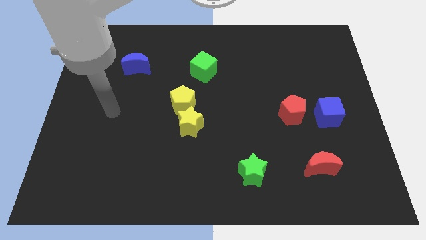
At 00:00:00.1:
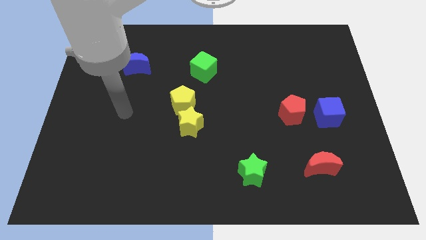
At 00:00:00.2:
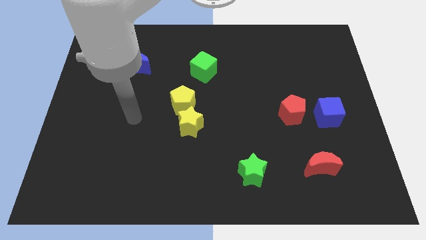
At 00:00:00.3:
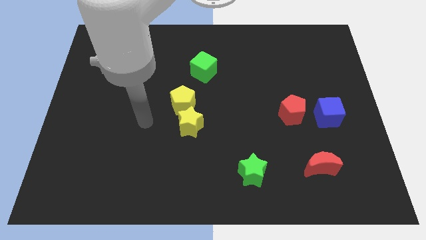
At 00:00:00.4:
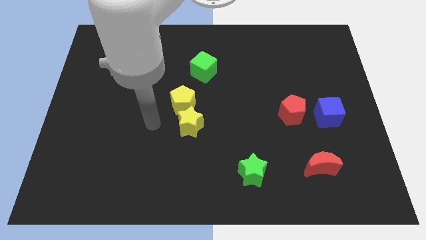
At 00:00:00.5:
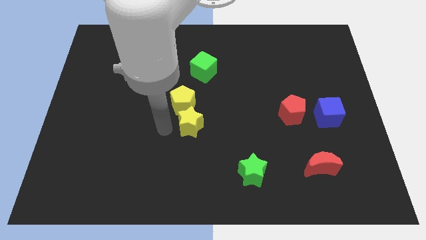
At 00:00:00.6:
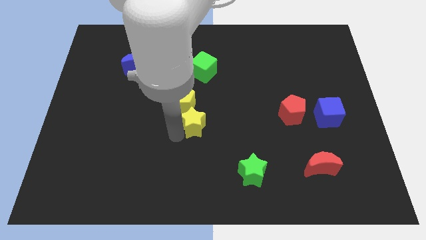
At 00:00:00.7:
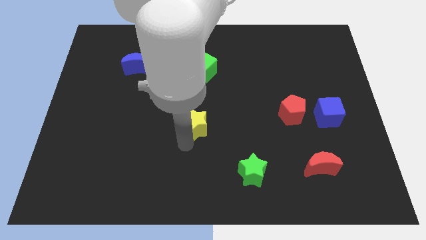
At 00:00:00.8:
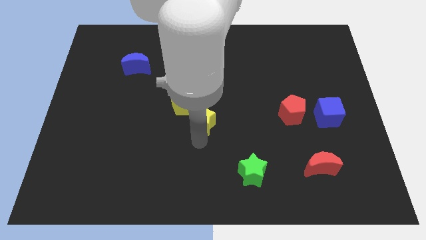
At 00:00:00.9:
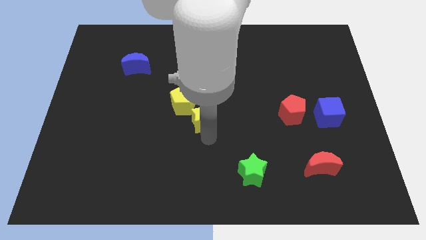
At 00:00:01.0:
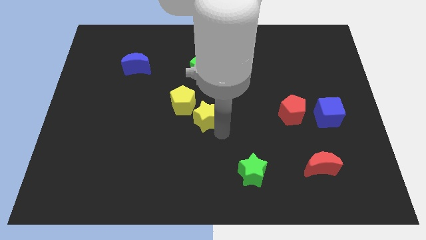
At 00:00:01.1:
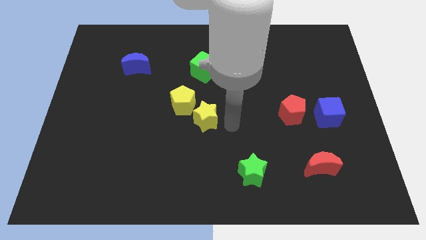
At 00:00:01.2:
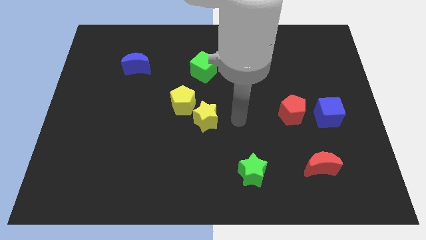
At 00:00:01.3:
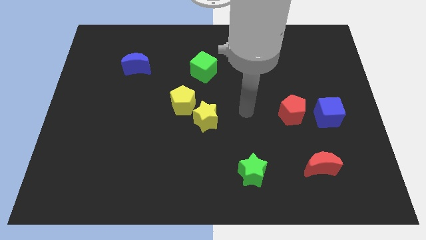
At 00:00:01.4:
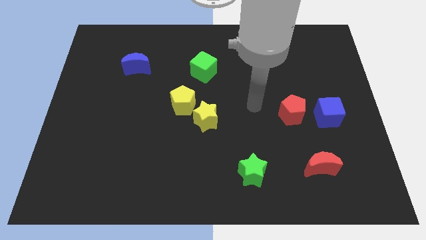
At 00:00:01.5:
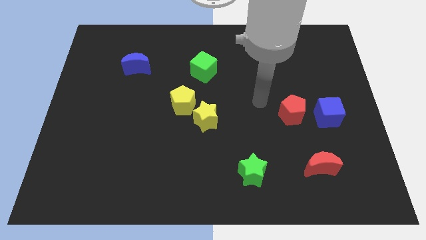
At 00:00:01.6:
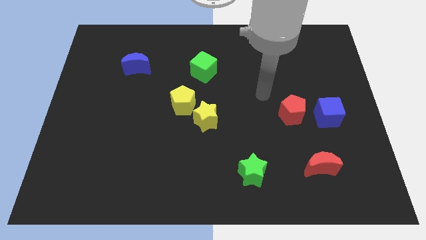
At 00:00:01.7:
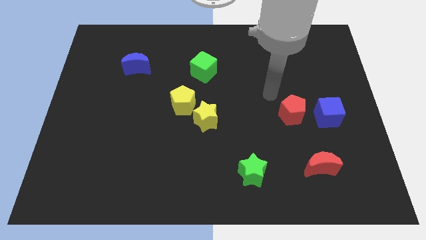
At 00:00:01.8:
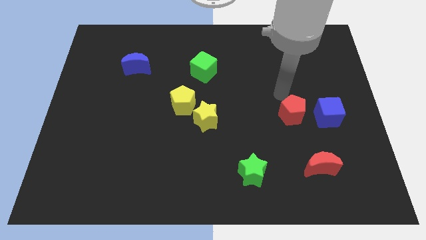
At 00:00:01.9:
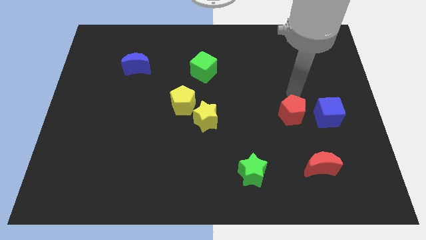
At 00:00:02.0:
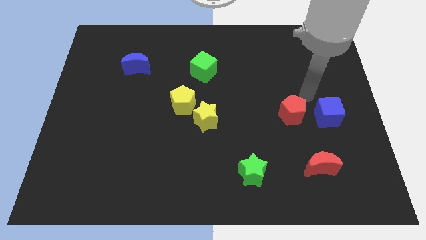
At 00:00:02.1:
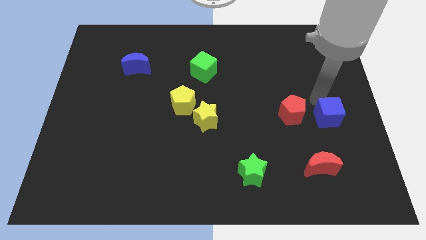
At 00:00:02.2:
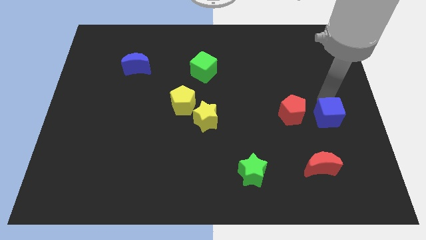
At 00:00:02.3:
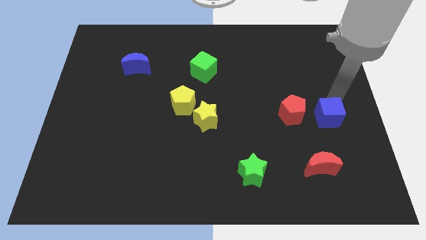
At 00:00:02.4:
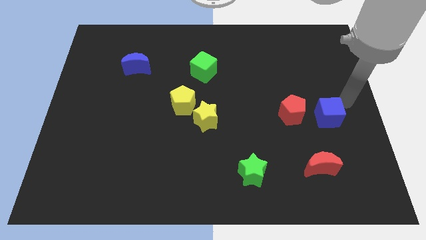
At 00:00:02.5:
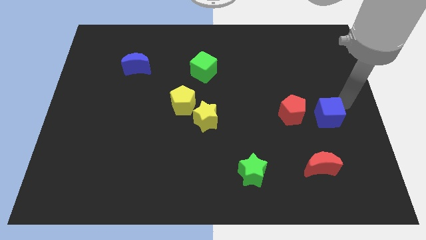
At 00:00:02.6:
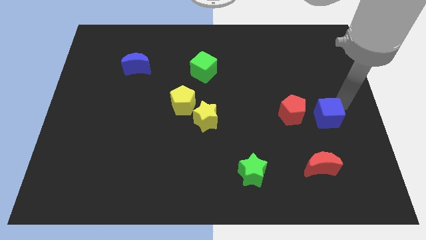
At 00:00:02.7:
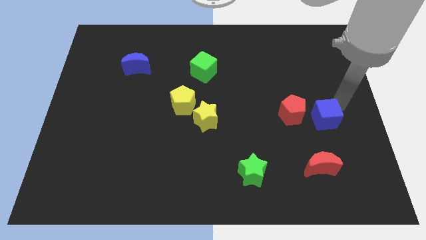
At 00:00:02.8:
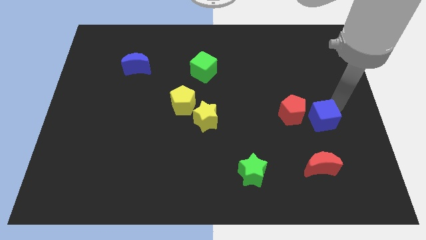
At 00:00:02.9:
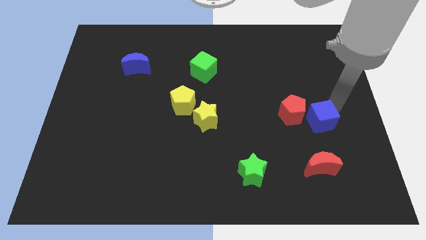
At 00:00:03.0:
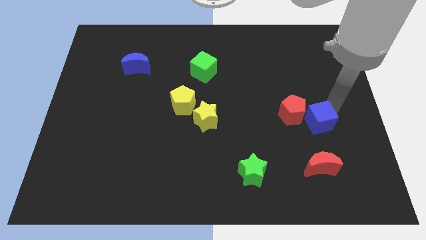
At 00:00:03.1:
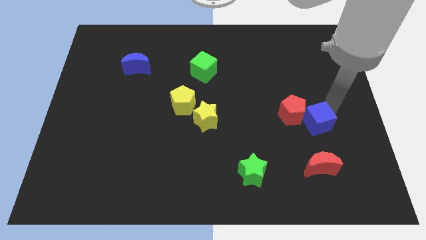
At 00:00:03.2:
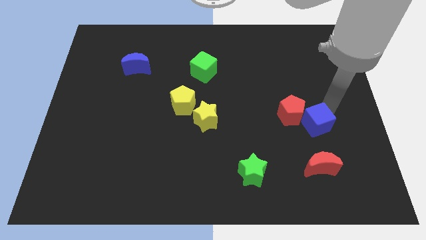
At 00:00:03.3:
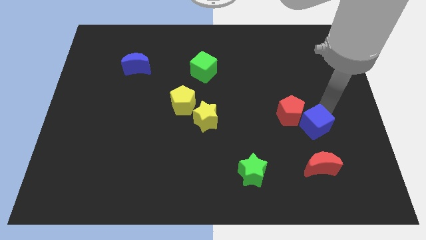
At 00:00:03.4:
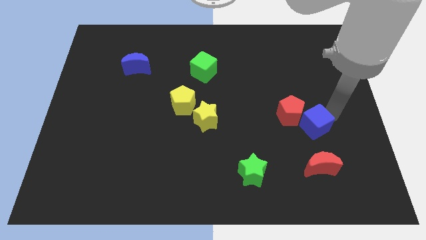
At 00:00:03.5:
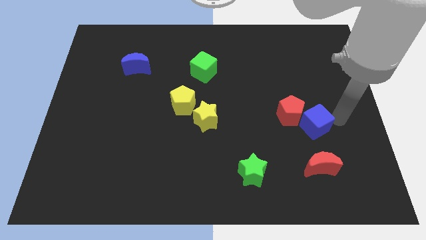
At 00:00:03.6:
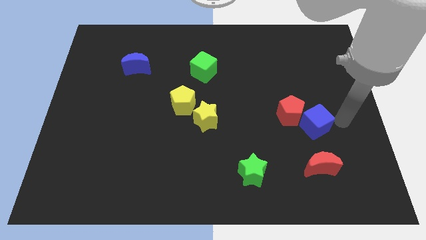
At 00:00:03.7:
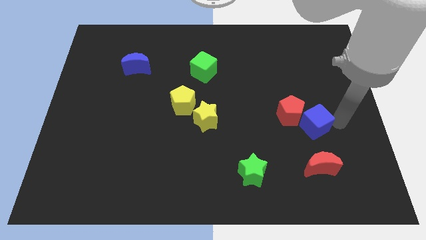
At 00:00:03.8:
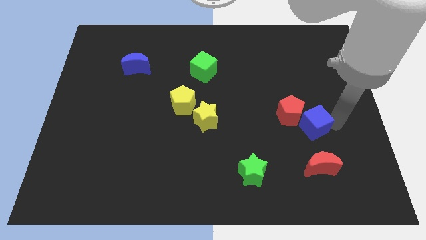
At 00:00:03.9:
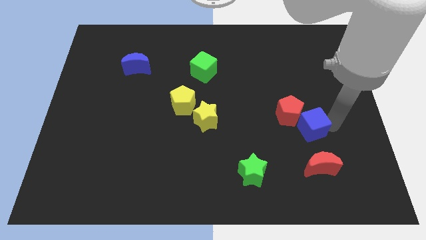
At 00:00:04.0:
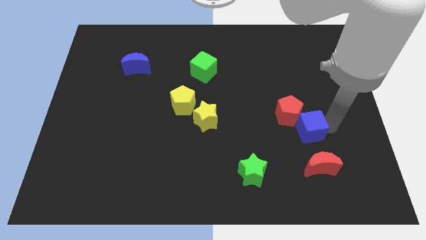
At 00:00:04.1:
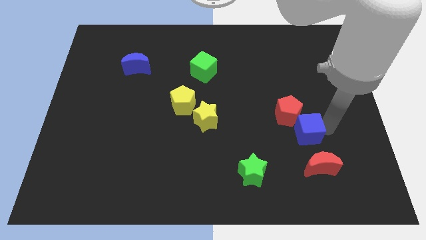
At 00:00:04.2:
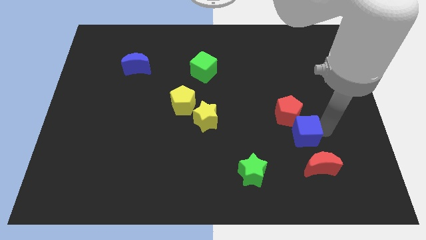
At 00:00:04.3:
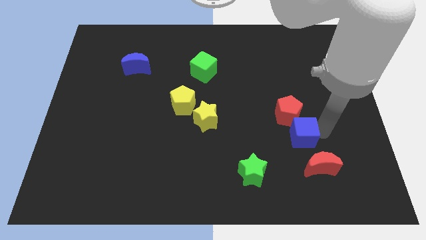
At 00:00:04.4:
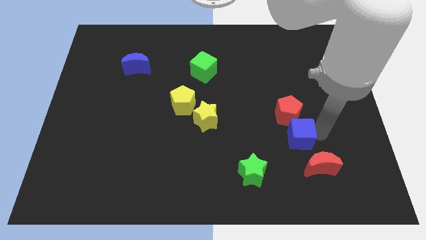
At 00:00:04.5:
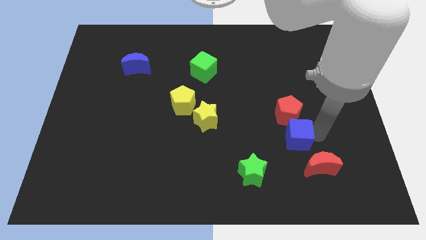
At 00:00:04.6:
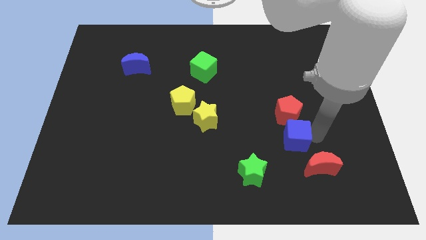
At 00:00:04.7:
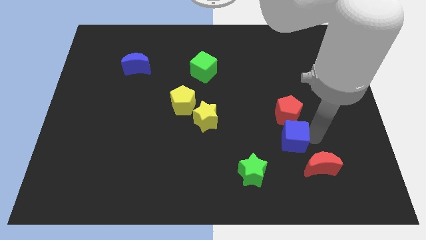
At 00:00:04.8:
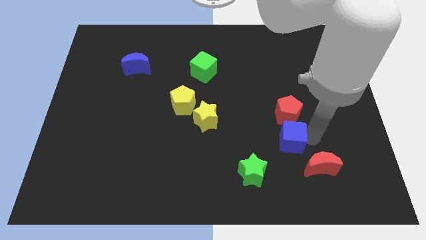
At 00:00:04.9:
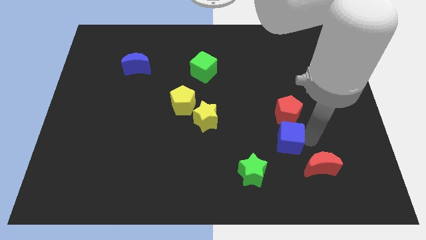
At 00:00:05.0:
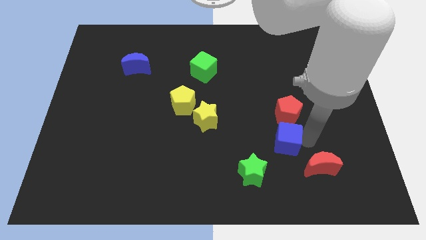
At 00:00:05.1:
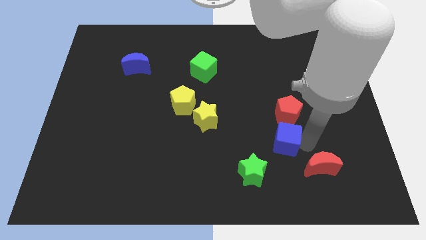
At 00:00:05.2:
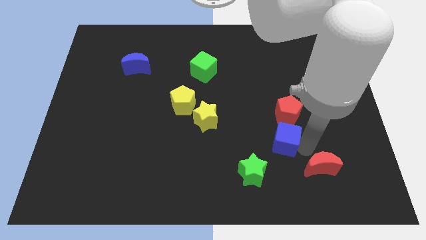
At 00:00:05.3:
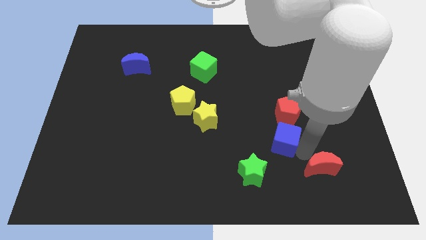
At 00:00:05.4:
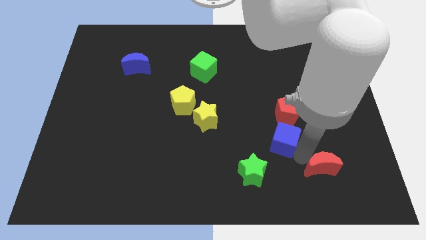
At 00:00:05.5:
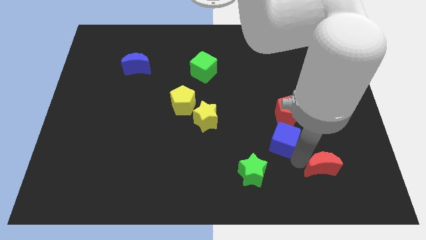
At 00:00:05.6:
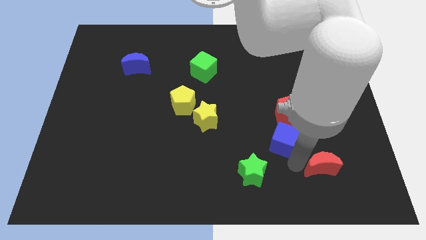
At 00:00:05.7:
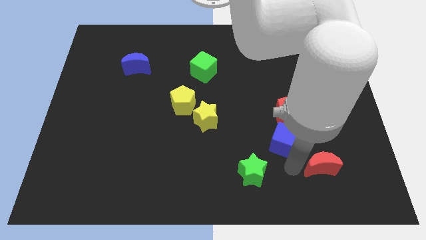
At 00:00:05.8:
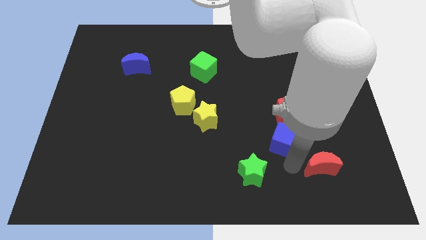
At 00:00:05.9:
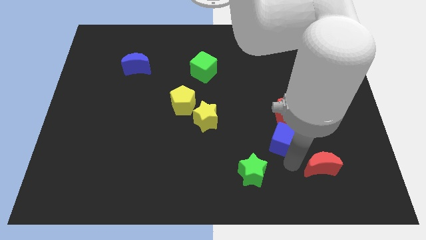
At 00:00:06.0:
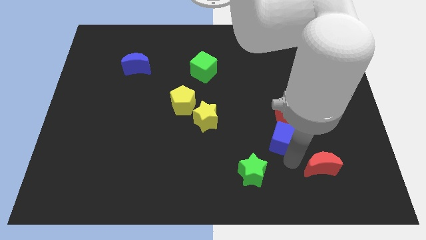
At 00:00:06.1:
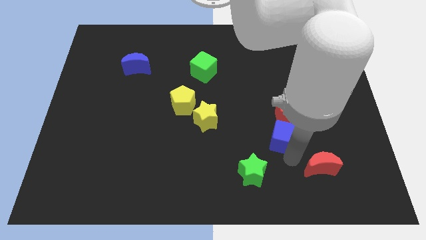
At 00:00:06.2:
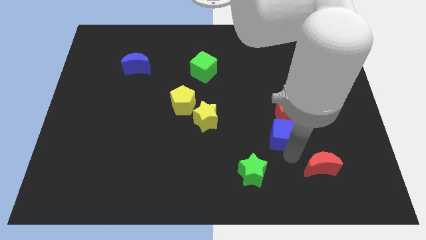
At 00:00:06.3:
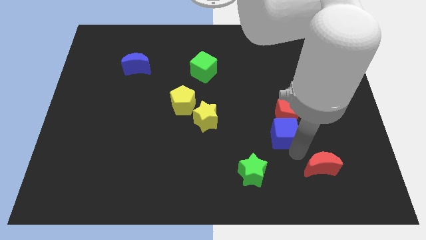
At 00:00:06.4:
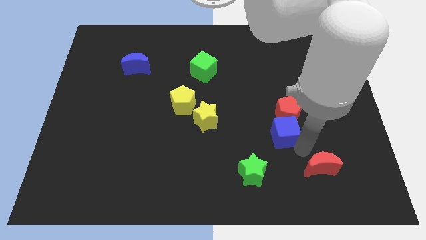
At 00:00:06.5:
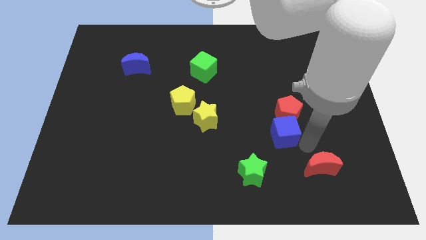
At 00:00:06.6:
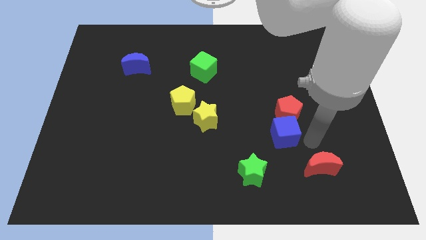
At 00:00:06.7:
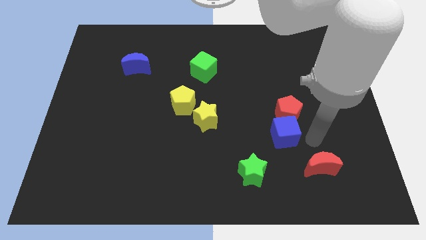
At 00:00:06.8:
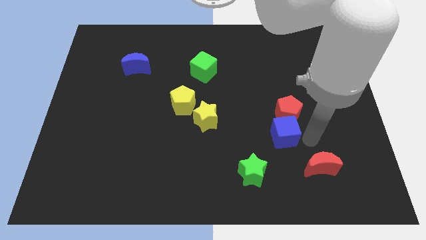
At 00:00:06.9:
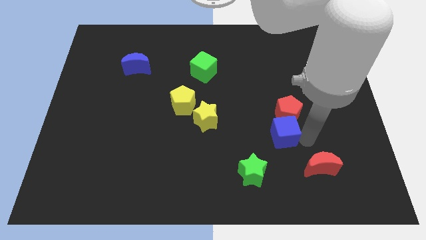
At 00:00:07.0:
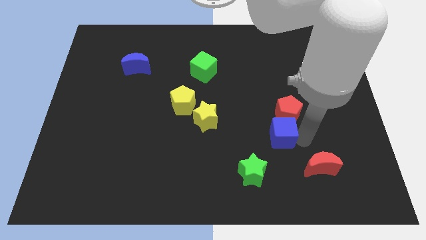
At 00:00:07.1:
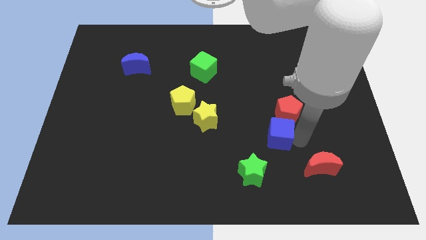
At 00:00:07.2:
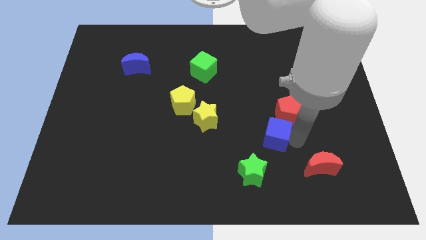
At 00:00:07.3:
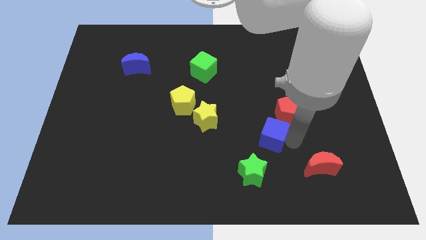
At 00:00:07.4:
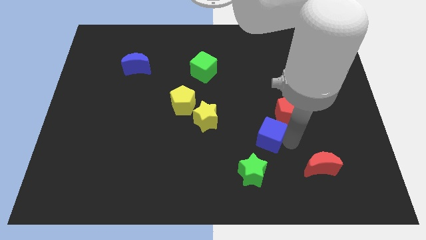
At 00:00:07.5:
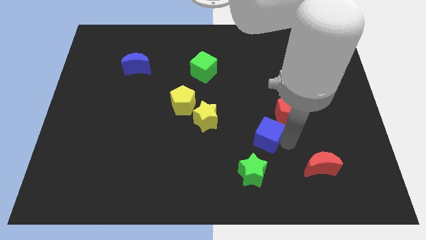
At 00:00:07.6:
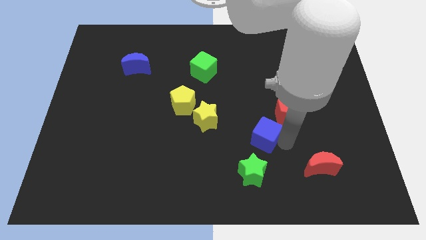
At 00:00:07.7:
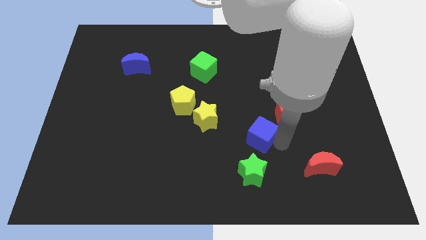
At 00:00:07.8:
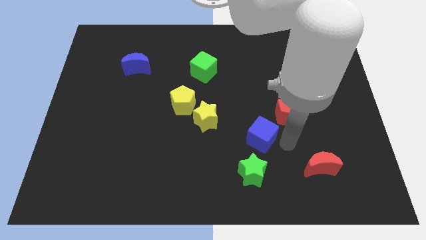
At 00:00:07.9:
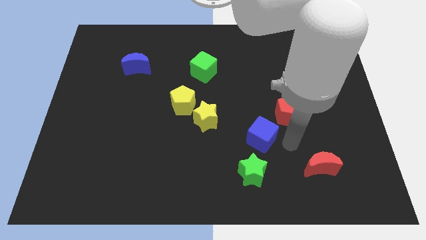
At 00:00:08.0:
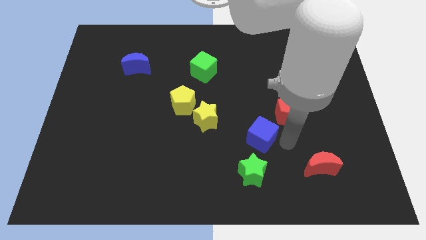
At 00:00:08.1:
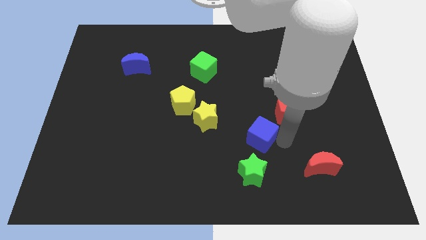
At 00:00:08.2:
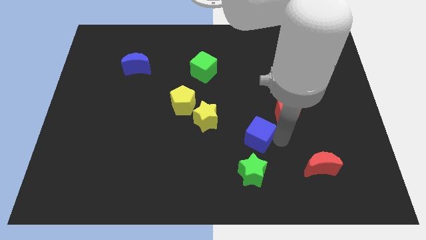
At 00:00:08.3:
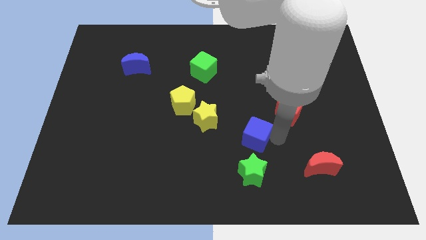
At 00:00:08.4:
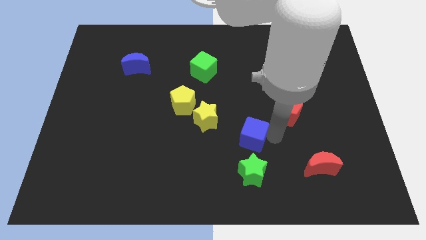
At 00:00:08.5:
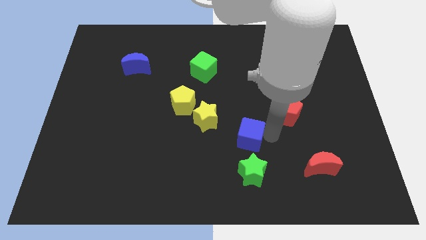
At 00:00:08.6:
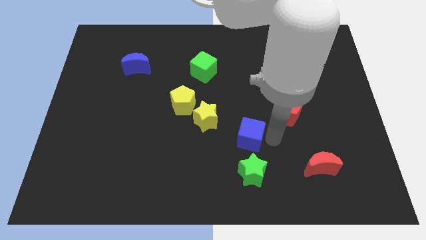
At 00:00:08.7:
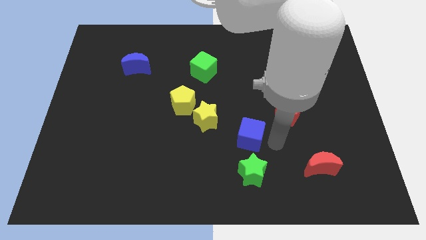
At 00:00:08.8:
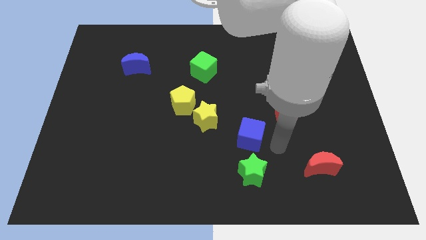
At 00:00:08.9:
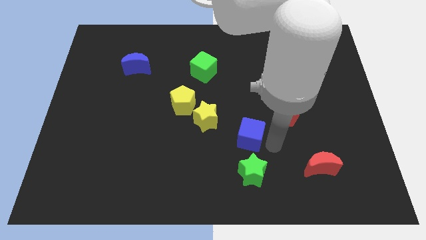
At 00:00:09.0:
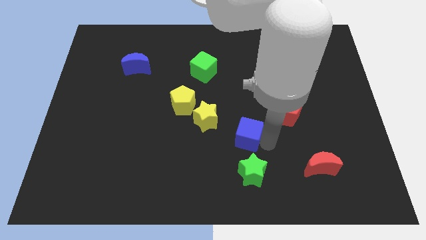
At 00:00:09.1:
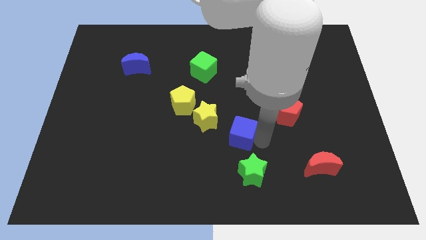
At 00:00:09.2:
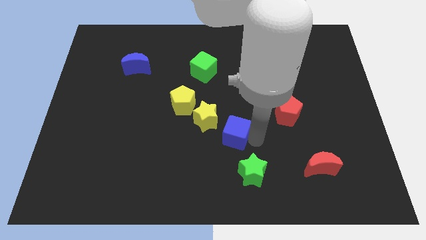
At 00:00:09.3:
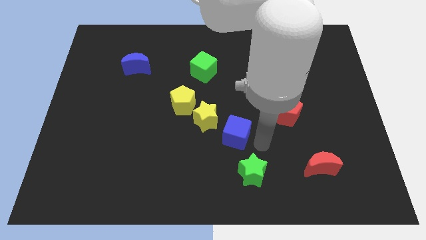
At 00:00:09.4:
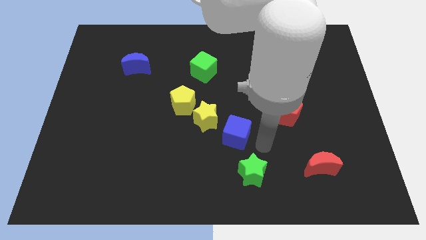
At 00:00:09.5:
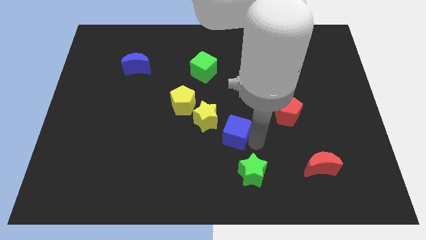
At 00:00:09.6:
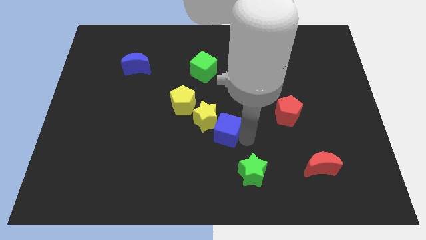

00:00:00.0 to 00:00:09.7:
move the blue cube to the bottom right of the yellow pentagon
